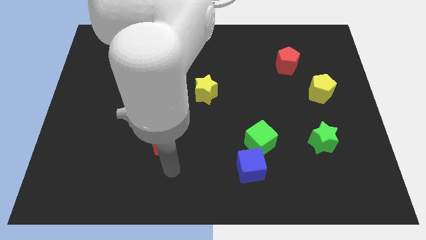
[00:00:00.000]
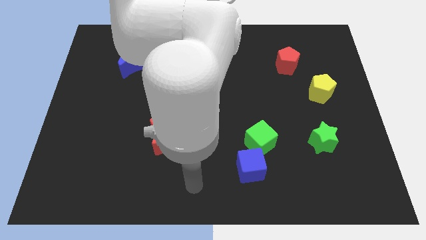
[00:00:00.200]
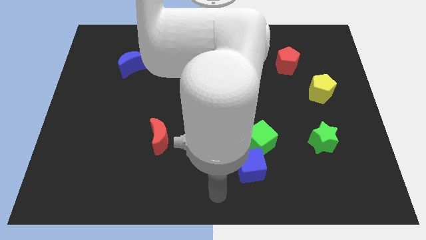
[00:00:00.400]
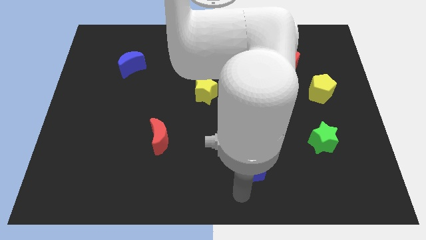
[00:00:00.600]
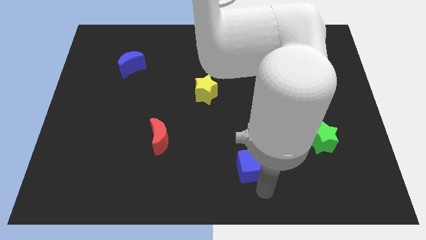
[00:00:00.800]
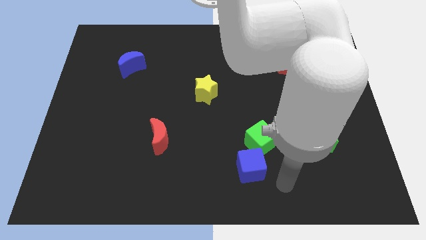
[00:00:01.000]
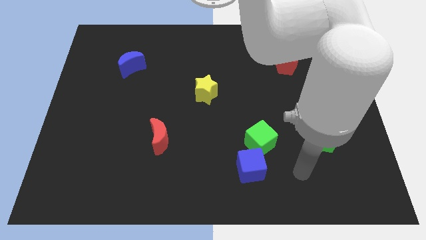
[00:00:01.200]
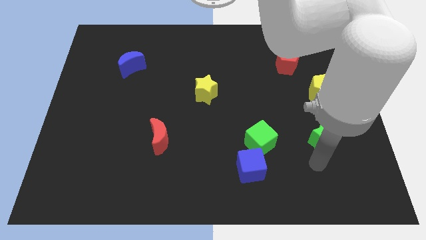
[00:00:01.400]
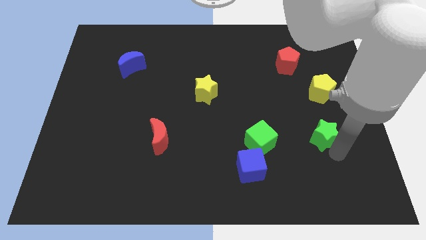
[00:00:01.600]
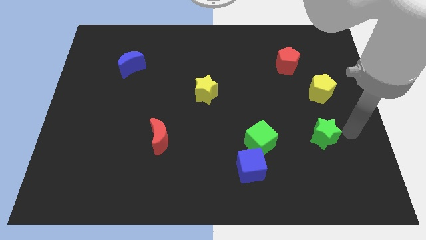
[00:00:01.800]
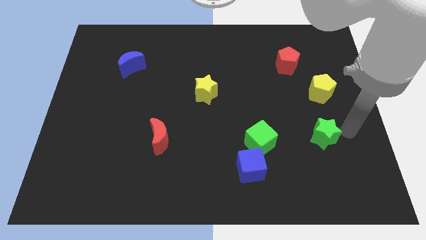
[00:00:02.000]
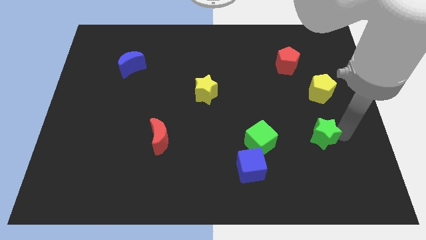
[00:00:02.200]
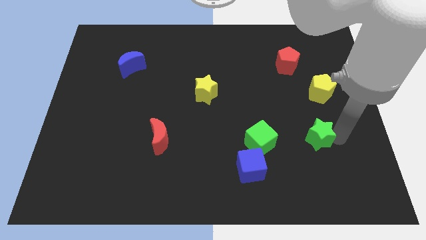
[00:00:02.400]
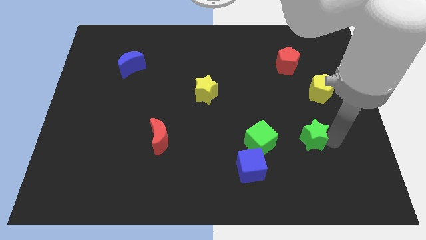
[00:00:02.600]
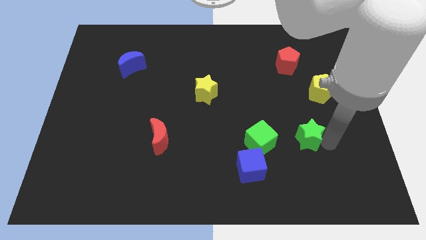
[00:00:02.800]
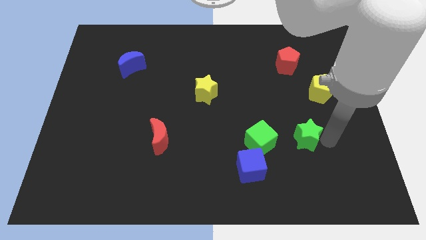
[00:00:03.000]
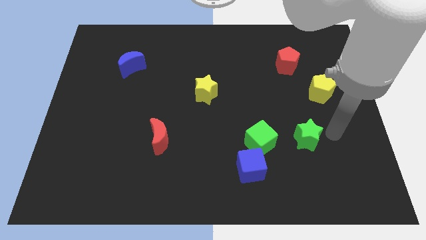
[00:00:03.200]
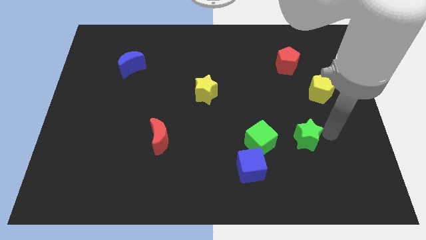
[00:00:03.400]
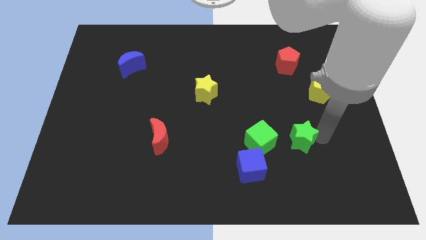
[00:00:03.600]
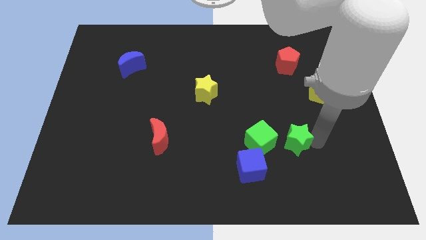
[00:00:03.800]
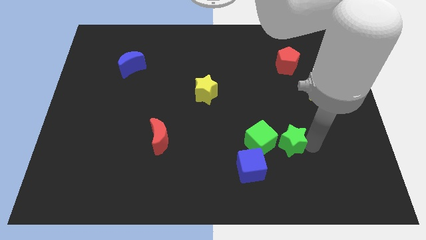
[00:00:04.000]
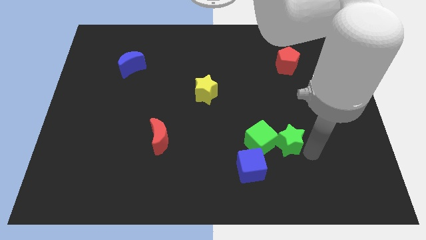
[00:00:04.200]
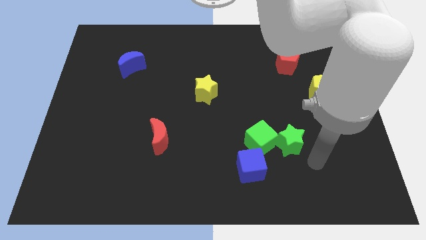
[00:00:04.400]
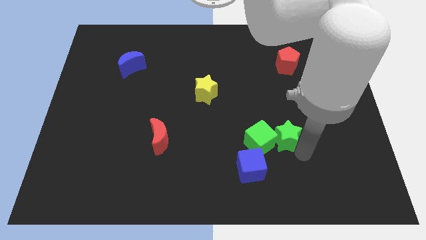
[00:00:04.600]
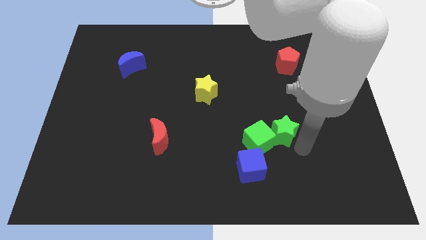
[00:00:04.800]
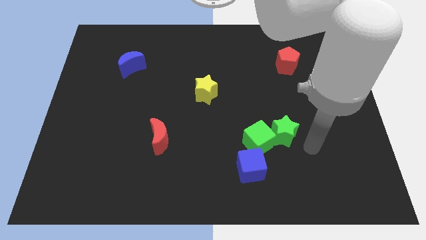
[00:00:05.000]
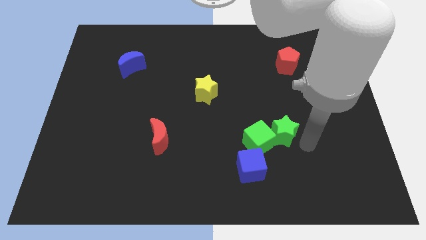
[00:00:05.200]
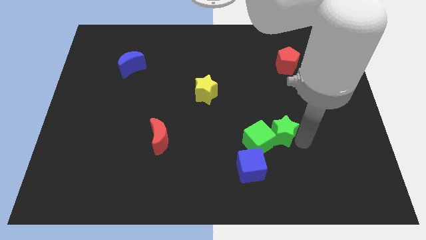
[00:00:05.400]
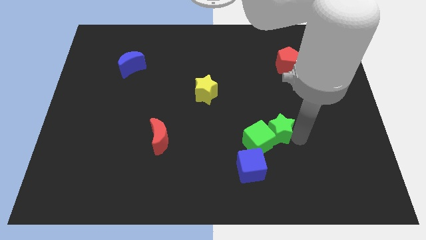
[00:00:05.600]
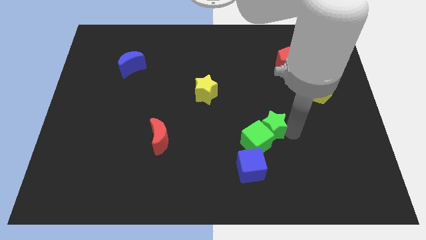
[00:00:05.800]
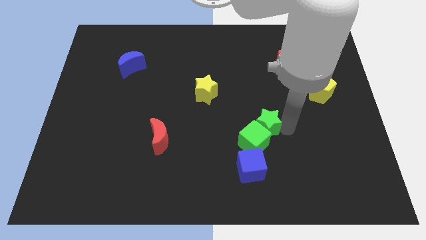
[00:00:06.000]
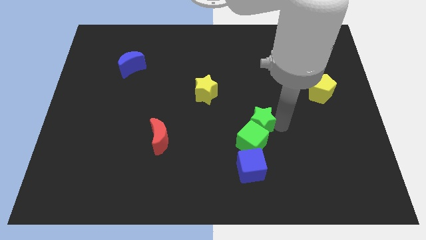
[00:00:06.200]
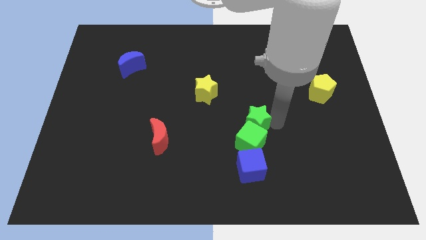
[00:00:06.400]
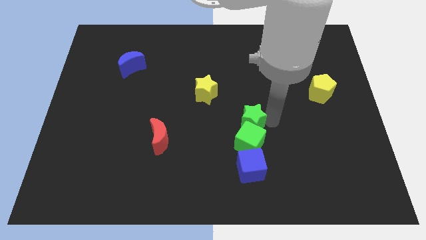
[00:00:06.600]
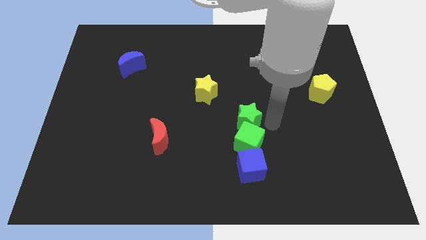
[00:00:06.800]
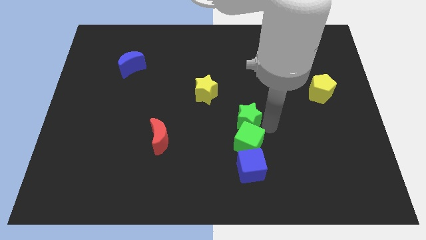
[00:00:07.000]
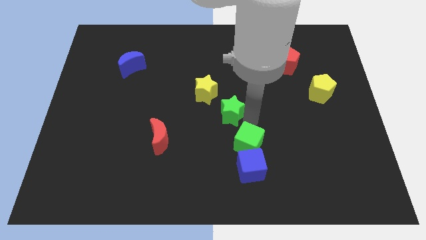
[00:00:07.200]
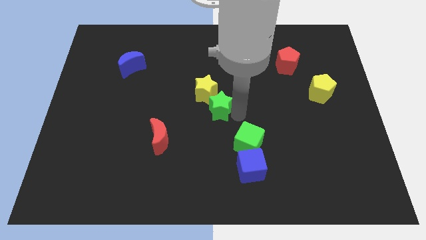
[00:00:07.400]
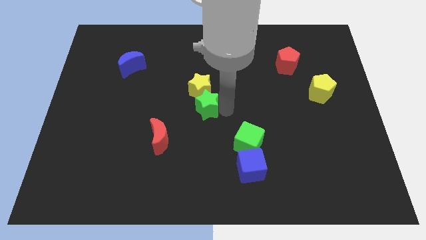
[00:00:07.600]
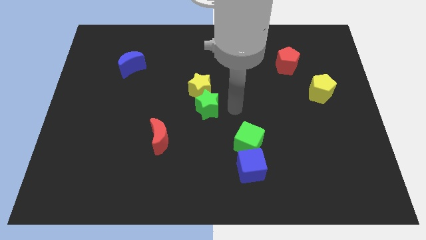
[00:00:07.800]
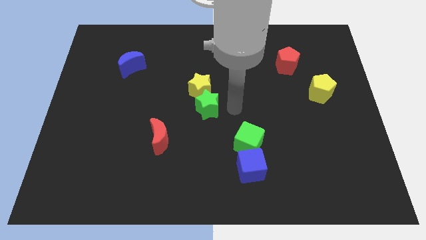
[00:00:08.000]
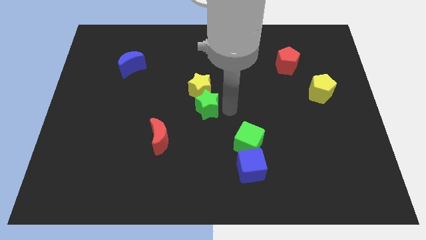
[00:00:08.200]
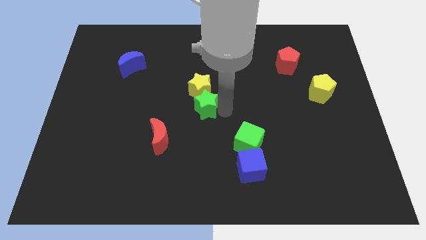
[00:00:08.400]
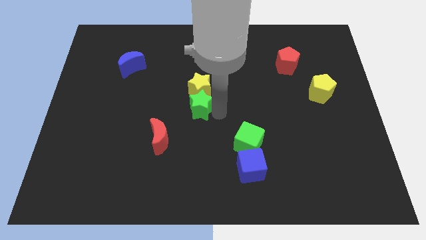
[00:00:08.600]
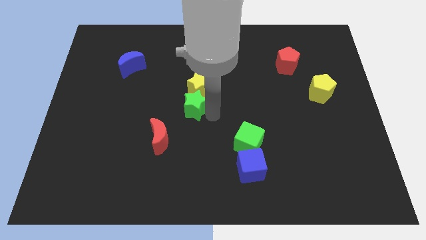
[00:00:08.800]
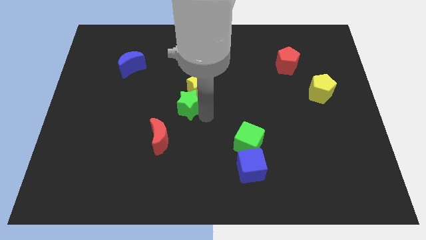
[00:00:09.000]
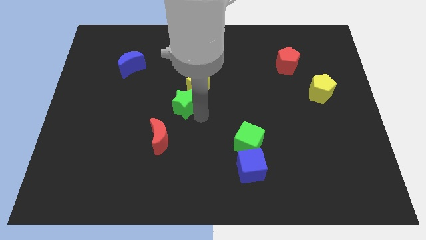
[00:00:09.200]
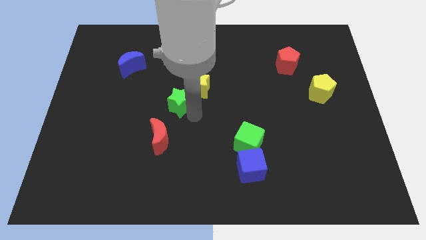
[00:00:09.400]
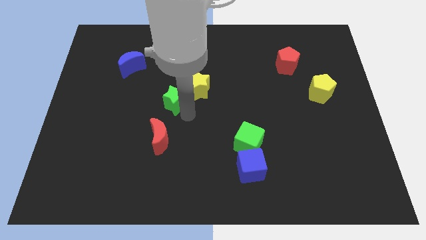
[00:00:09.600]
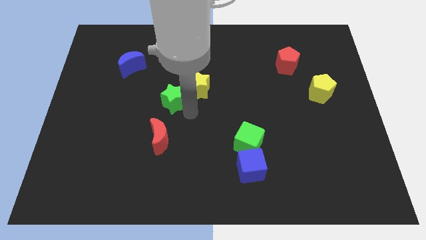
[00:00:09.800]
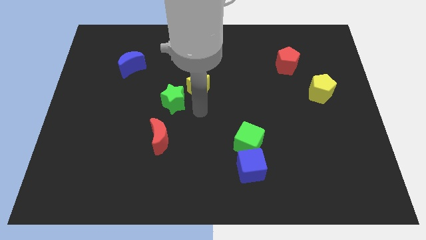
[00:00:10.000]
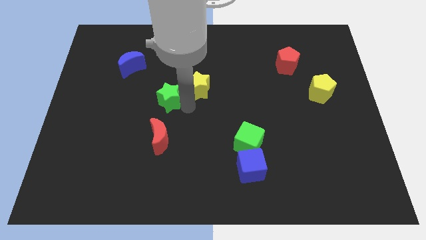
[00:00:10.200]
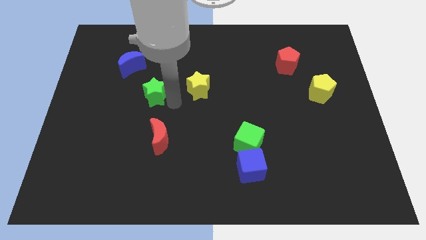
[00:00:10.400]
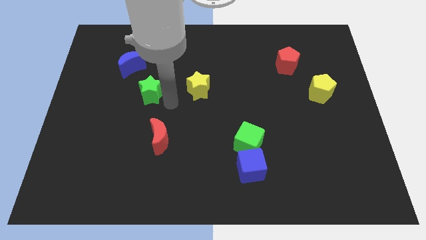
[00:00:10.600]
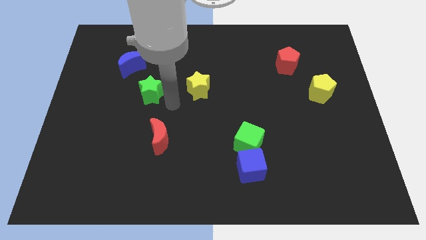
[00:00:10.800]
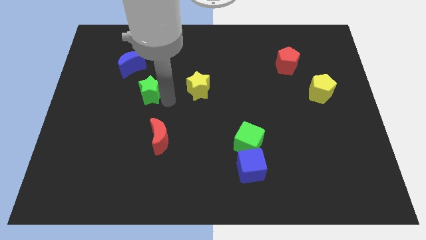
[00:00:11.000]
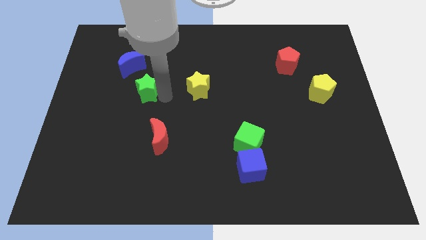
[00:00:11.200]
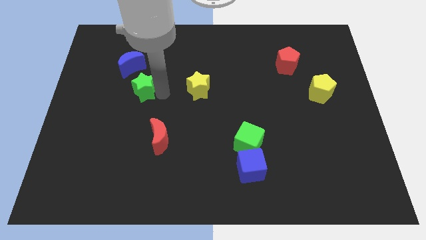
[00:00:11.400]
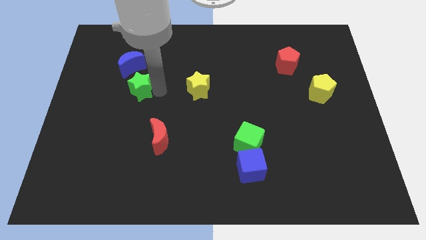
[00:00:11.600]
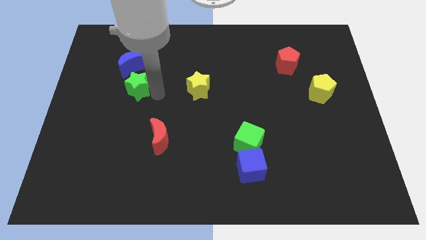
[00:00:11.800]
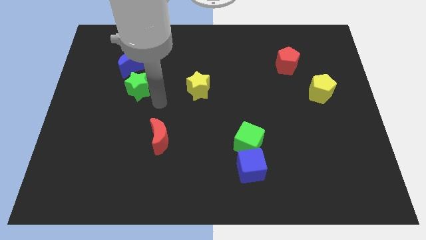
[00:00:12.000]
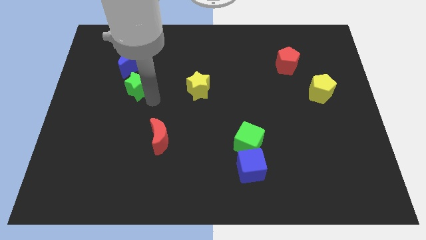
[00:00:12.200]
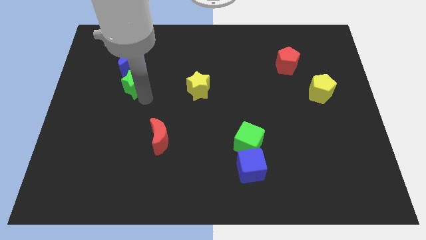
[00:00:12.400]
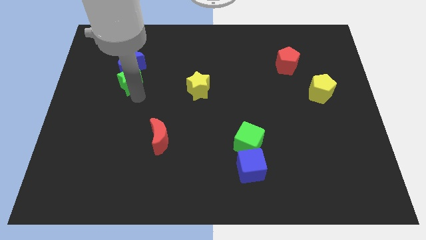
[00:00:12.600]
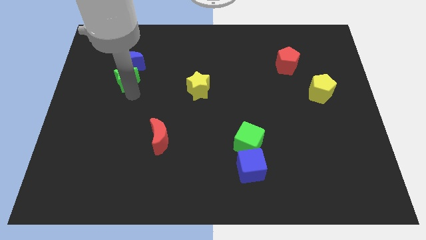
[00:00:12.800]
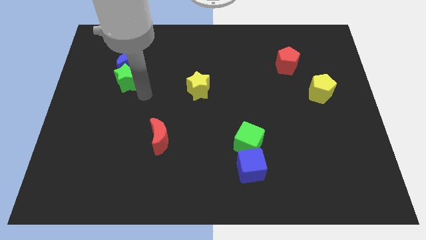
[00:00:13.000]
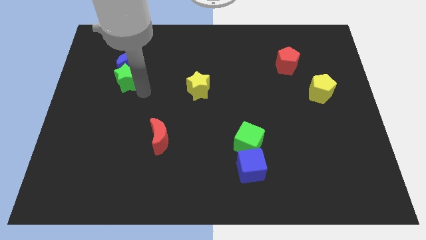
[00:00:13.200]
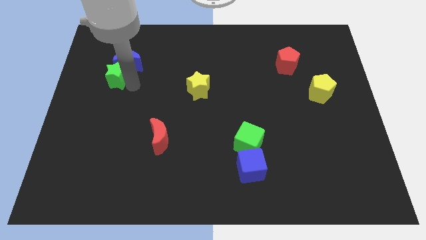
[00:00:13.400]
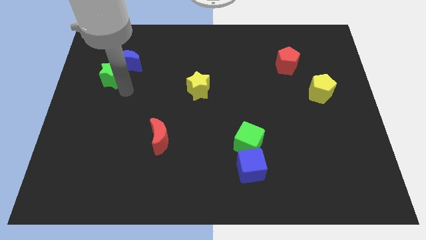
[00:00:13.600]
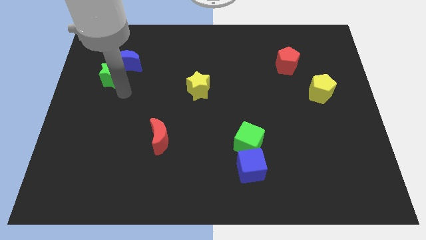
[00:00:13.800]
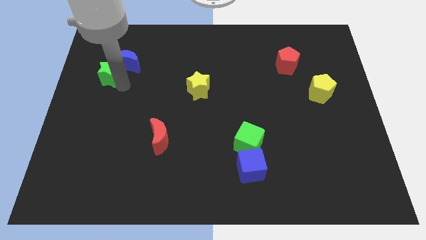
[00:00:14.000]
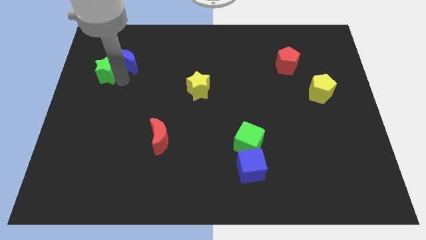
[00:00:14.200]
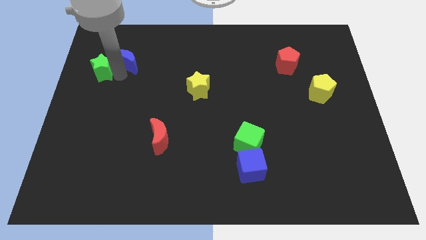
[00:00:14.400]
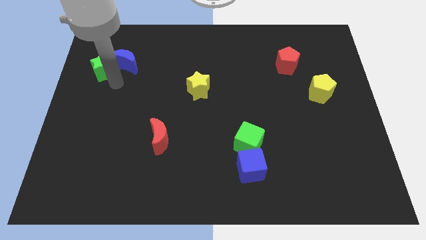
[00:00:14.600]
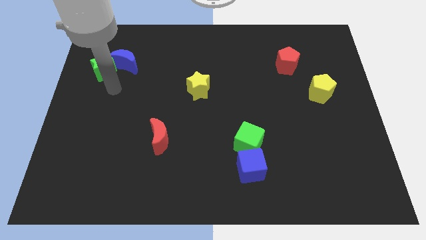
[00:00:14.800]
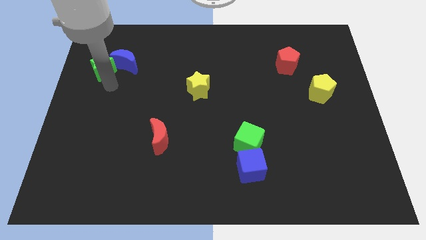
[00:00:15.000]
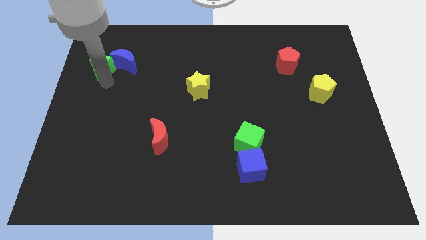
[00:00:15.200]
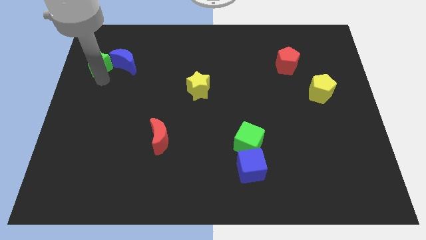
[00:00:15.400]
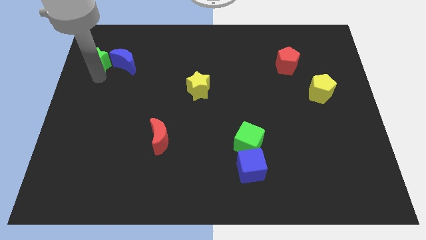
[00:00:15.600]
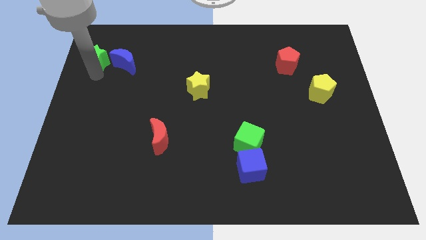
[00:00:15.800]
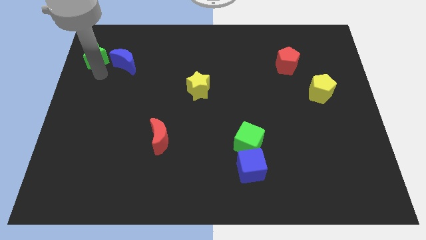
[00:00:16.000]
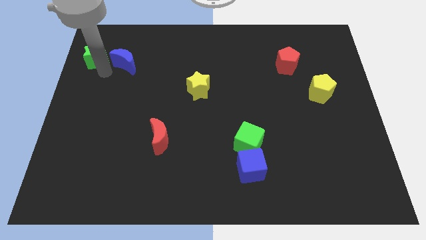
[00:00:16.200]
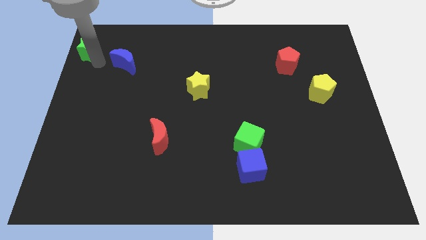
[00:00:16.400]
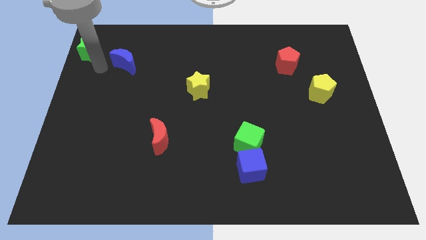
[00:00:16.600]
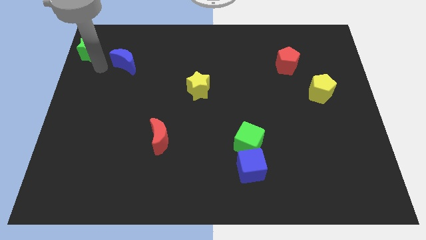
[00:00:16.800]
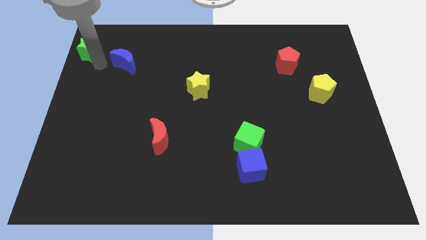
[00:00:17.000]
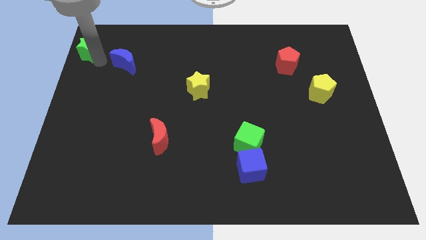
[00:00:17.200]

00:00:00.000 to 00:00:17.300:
slide the green star to the upper left corner
